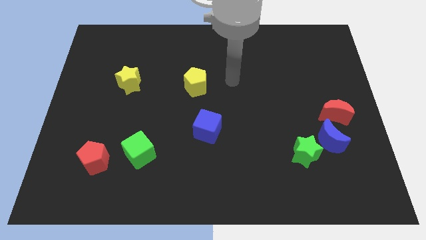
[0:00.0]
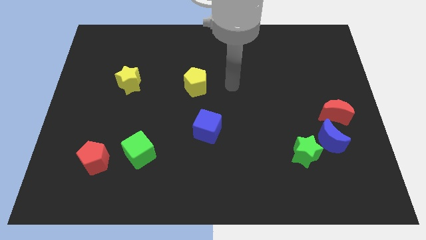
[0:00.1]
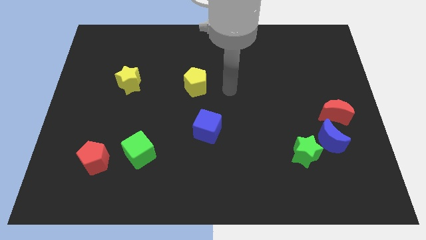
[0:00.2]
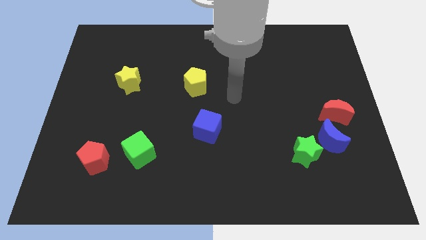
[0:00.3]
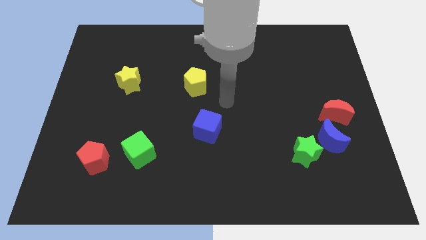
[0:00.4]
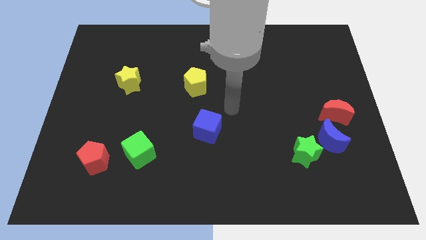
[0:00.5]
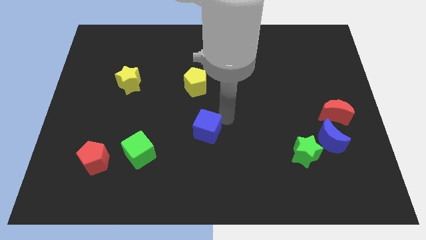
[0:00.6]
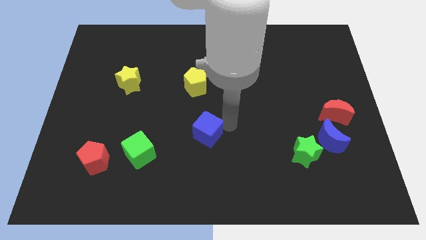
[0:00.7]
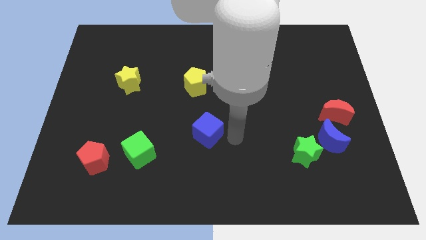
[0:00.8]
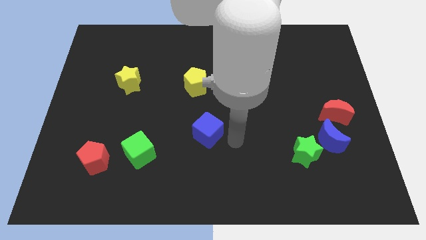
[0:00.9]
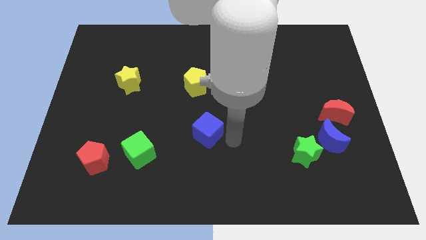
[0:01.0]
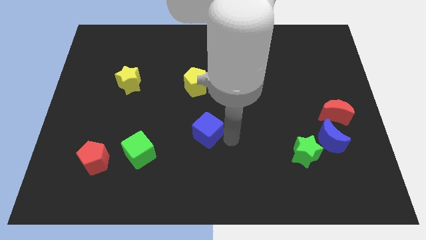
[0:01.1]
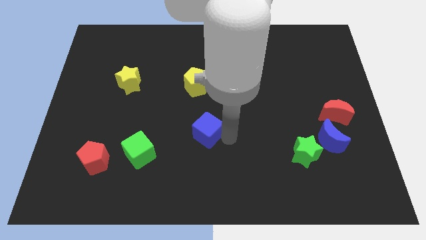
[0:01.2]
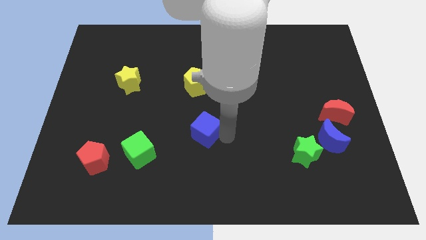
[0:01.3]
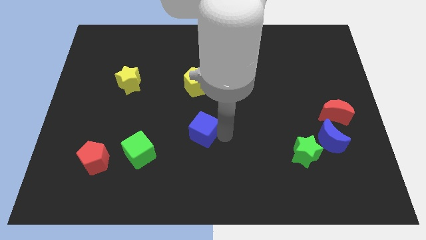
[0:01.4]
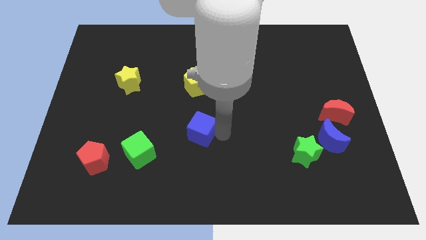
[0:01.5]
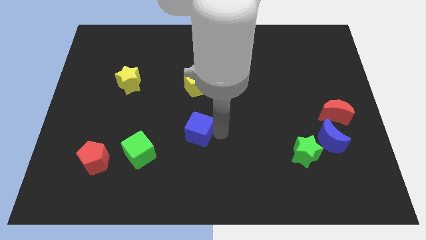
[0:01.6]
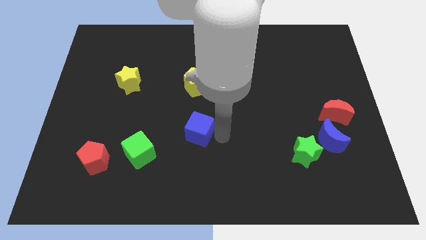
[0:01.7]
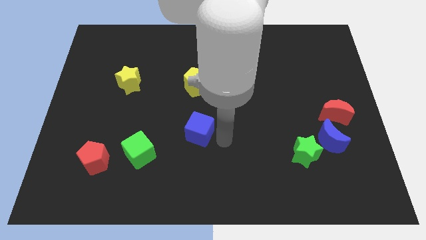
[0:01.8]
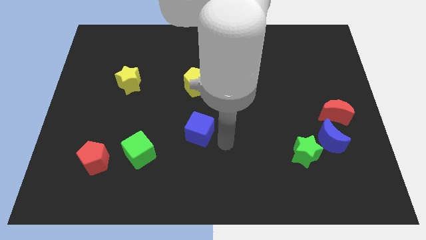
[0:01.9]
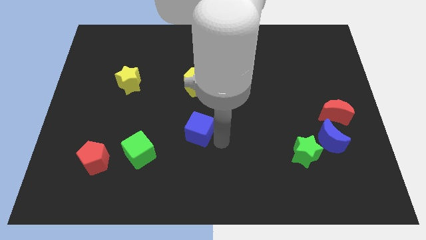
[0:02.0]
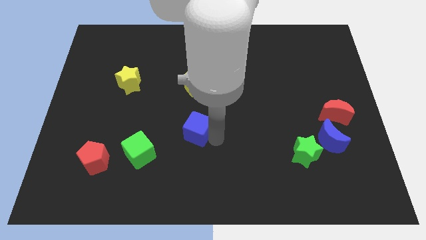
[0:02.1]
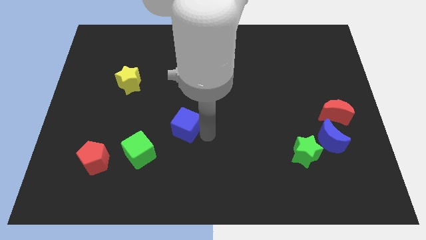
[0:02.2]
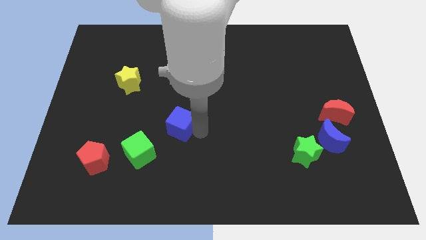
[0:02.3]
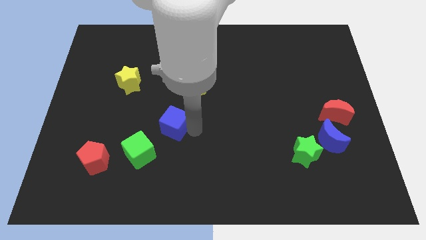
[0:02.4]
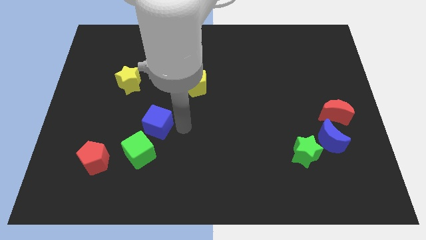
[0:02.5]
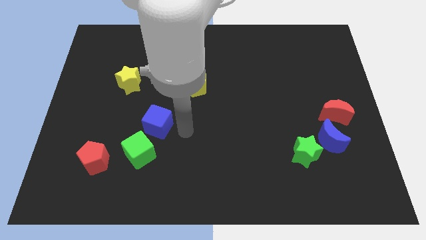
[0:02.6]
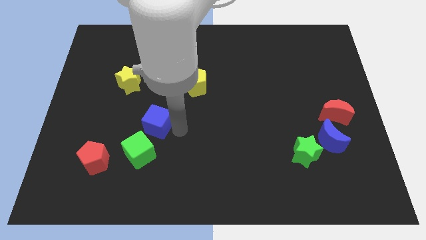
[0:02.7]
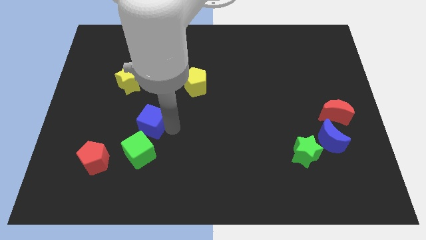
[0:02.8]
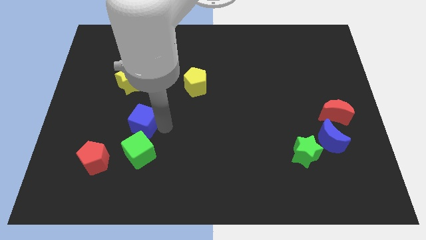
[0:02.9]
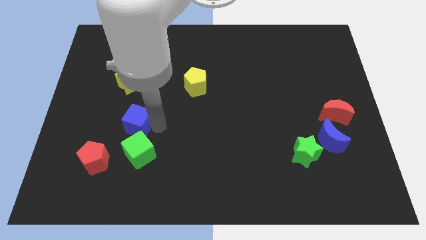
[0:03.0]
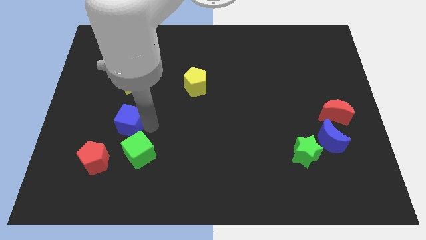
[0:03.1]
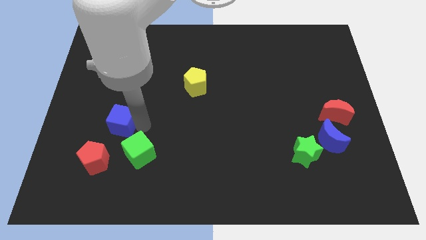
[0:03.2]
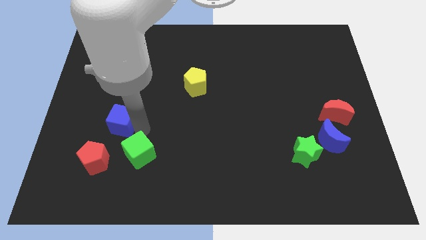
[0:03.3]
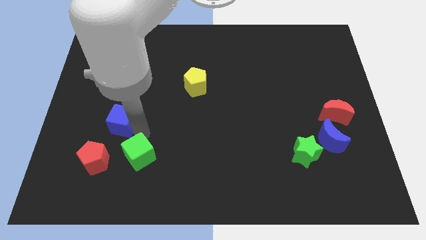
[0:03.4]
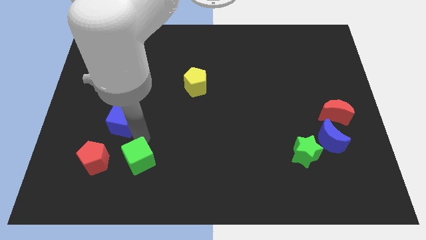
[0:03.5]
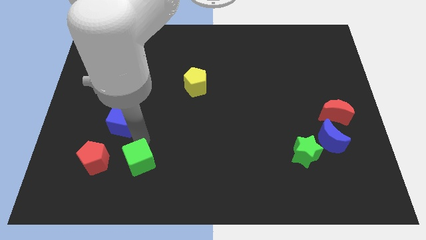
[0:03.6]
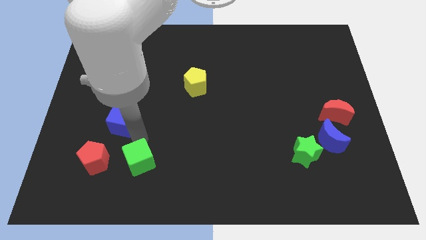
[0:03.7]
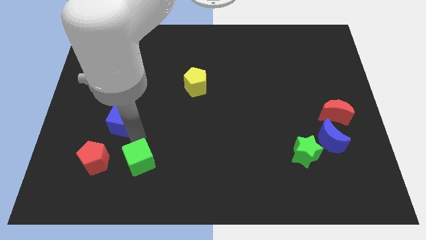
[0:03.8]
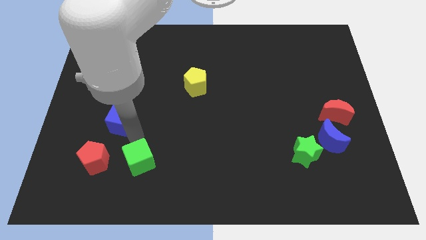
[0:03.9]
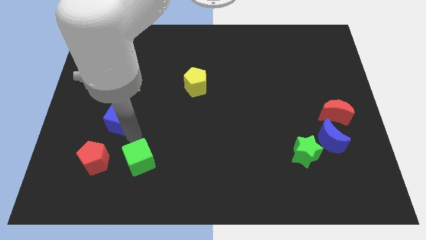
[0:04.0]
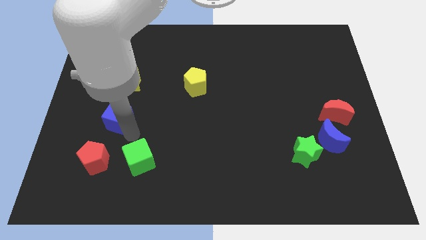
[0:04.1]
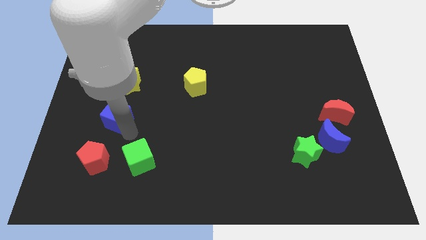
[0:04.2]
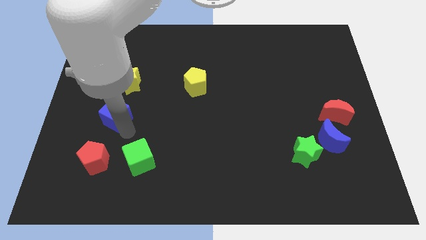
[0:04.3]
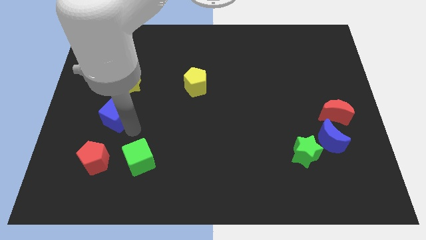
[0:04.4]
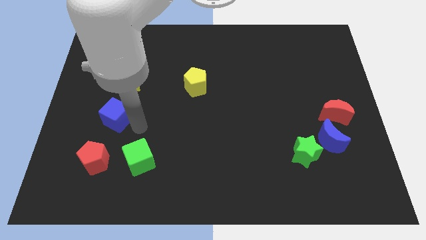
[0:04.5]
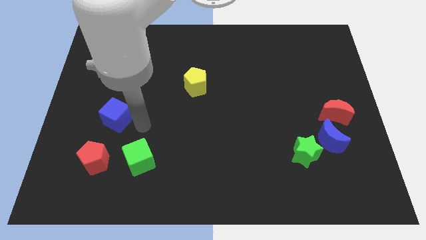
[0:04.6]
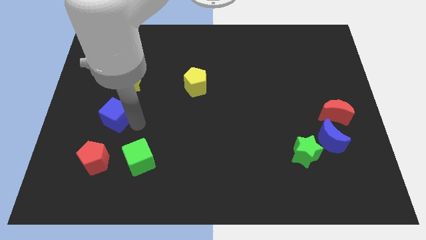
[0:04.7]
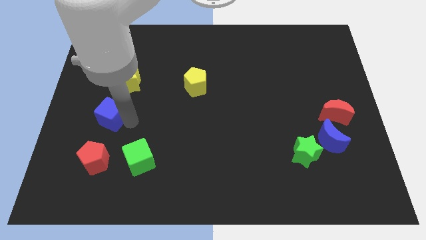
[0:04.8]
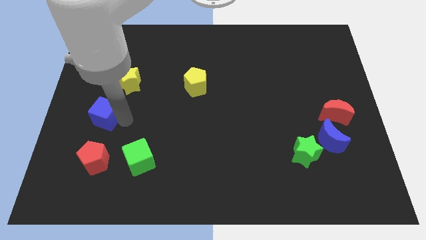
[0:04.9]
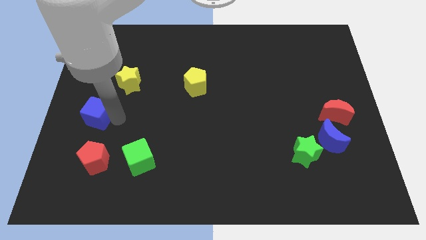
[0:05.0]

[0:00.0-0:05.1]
slide the blue cube to the left side of the board

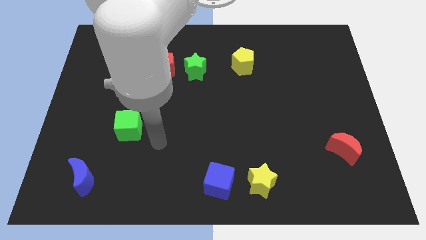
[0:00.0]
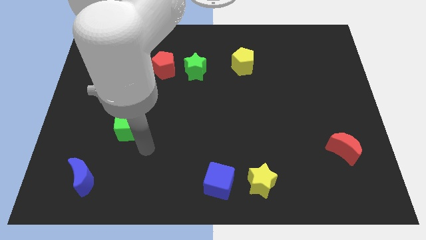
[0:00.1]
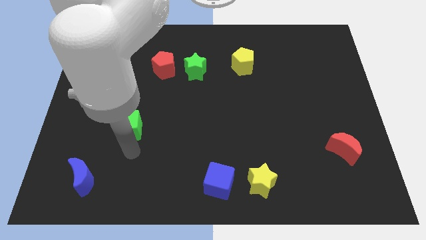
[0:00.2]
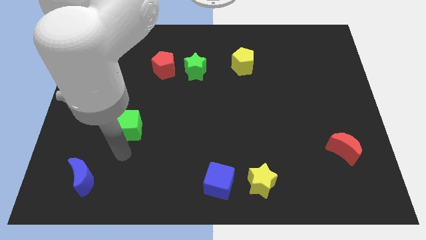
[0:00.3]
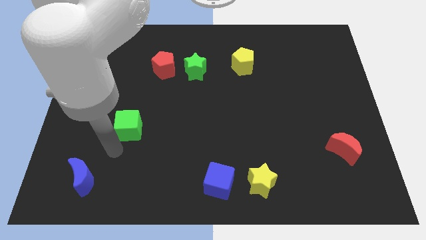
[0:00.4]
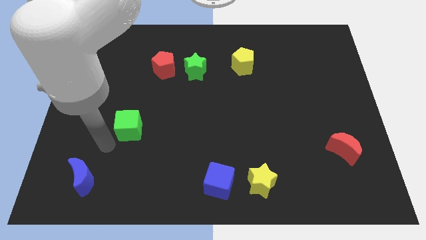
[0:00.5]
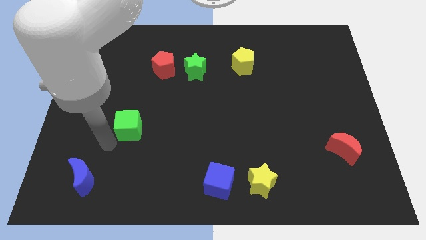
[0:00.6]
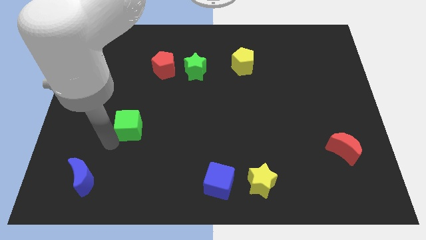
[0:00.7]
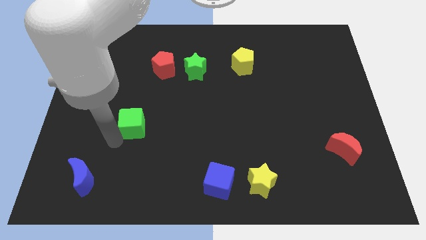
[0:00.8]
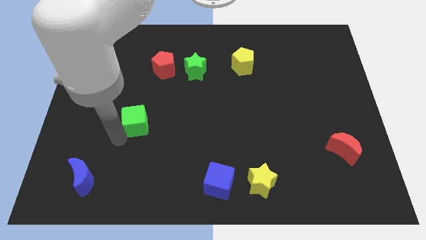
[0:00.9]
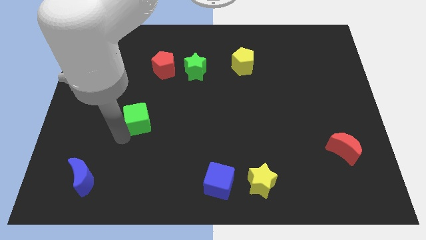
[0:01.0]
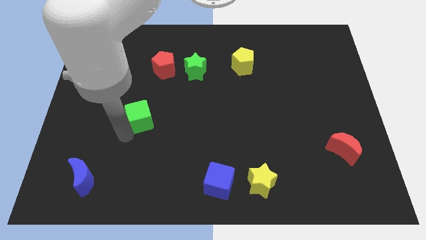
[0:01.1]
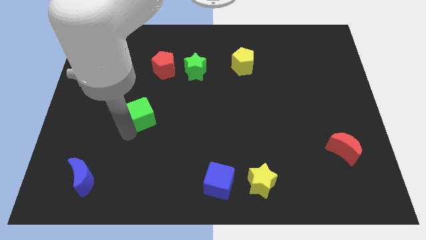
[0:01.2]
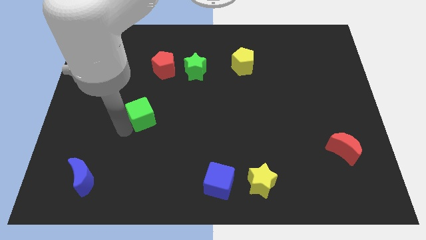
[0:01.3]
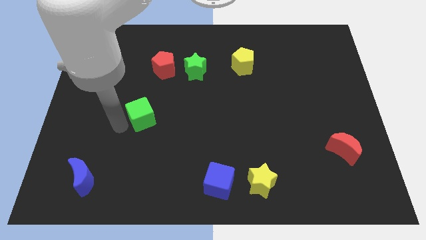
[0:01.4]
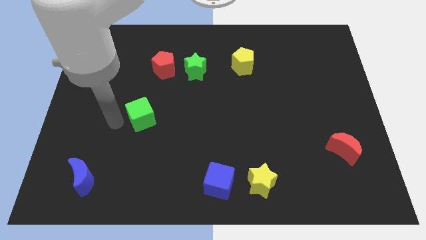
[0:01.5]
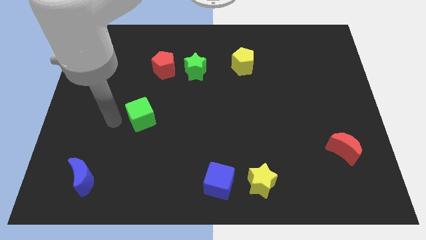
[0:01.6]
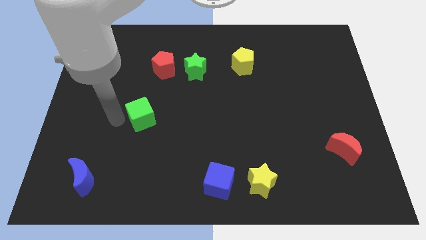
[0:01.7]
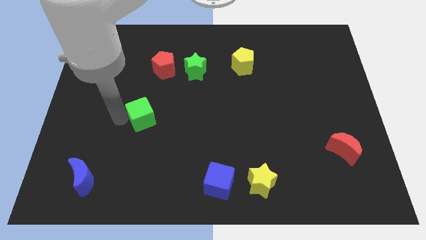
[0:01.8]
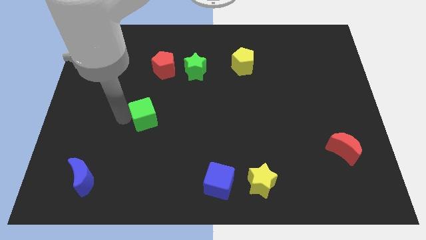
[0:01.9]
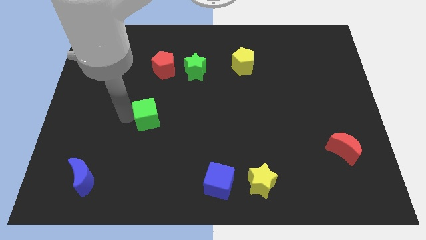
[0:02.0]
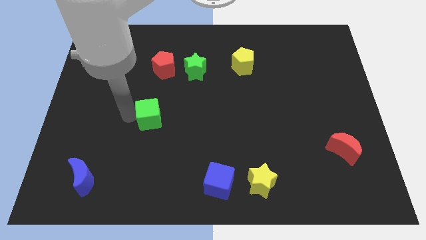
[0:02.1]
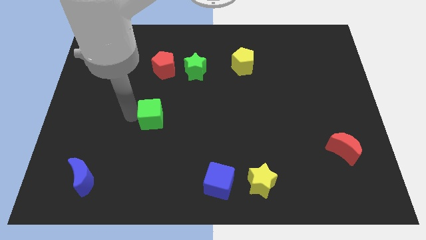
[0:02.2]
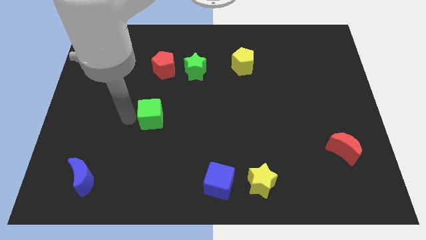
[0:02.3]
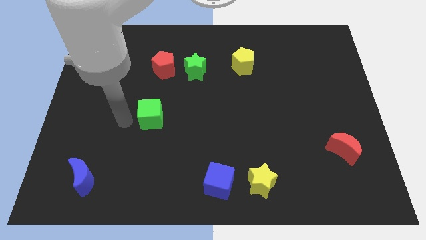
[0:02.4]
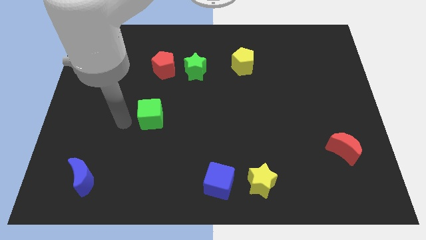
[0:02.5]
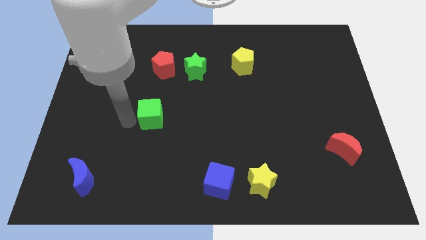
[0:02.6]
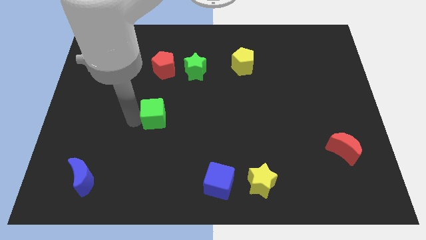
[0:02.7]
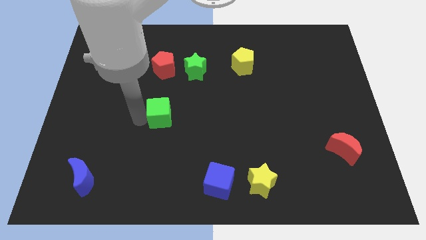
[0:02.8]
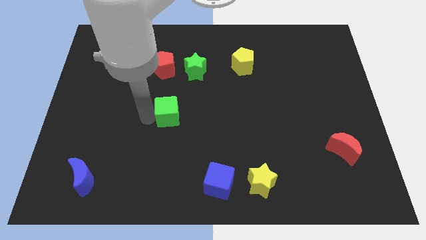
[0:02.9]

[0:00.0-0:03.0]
slide the green cube to the center
